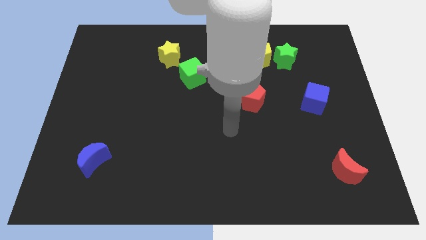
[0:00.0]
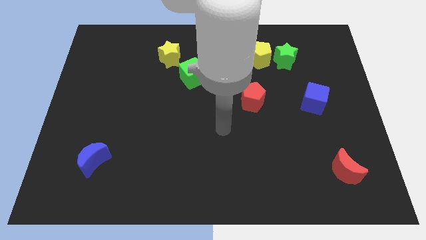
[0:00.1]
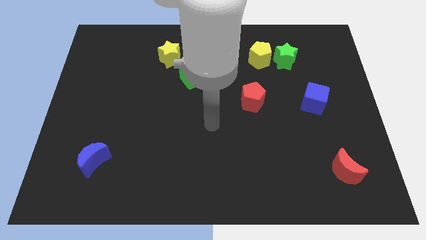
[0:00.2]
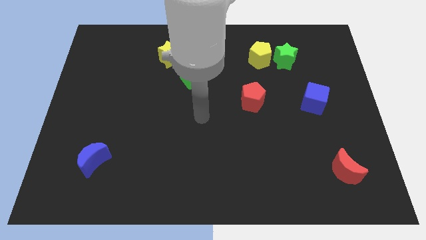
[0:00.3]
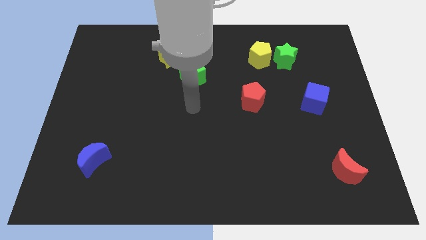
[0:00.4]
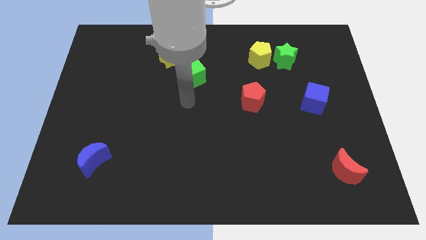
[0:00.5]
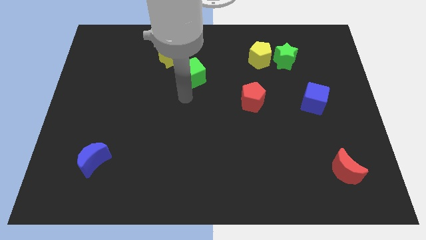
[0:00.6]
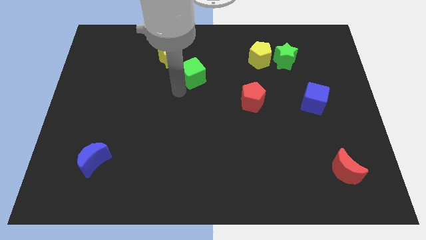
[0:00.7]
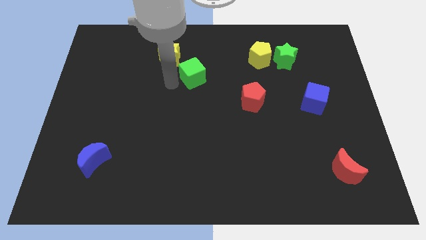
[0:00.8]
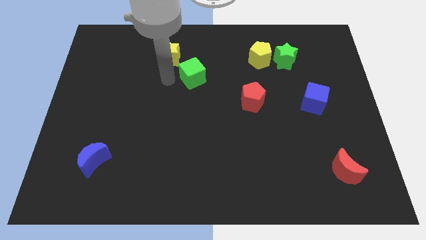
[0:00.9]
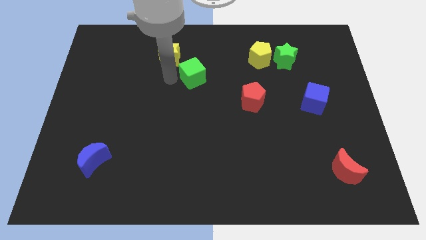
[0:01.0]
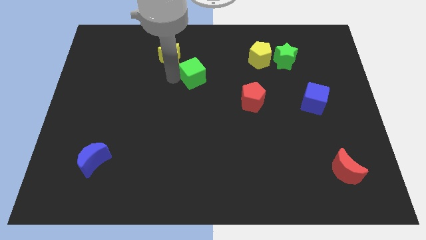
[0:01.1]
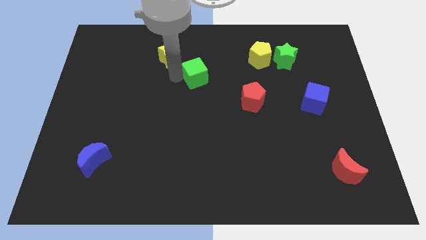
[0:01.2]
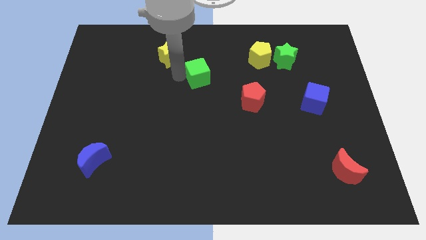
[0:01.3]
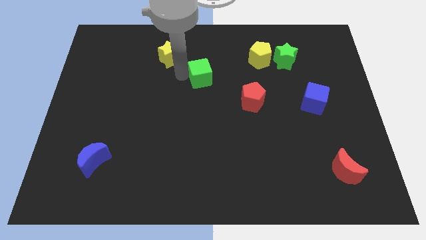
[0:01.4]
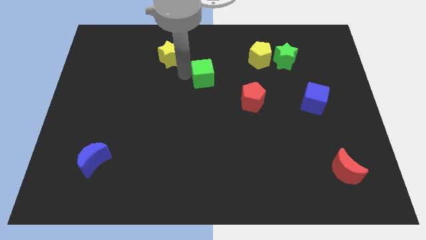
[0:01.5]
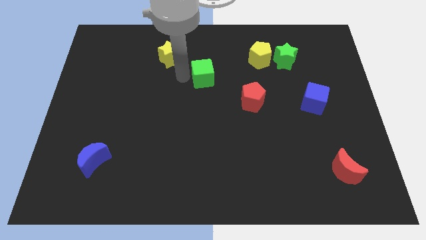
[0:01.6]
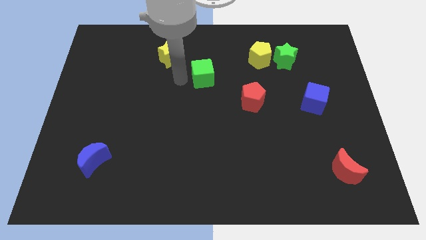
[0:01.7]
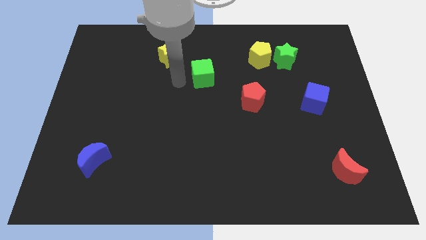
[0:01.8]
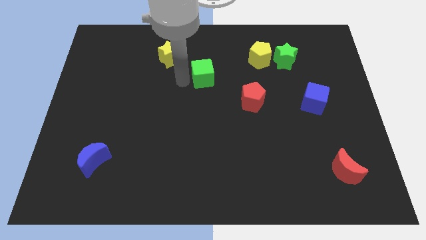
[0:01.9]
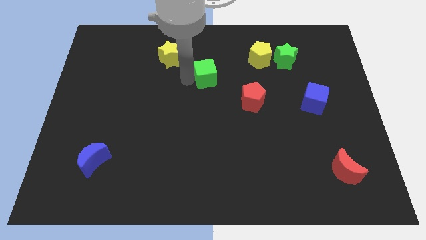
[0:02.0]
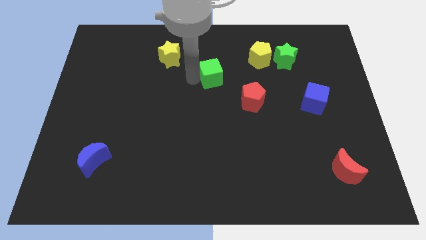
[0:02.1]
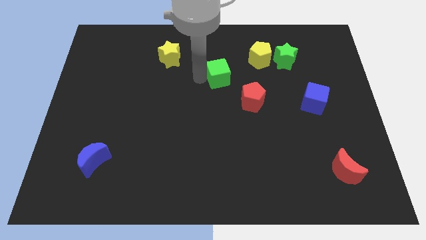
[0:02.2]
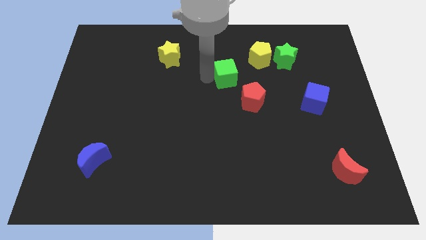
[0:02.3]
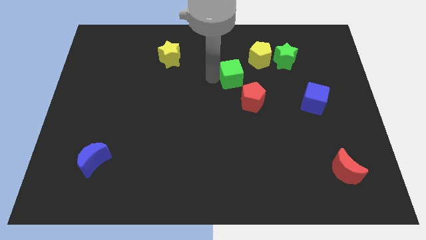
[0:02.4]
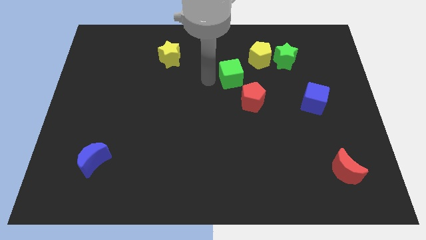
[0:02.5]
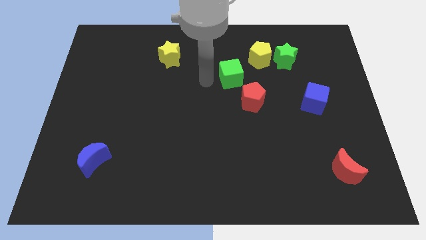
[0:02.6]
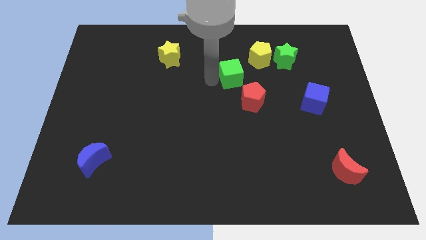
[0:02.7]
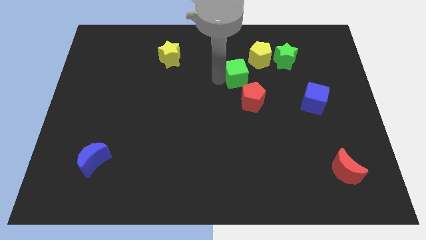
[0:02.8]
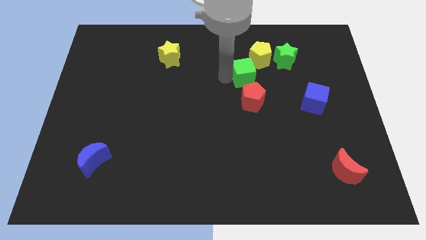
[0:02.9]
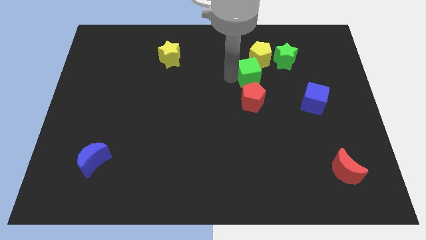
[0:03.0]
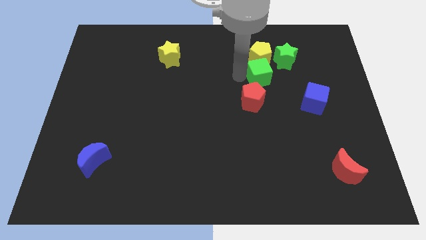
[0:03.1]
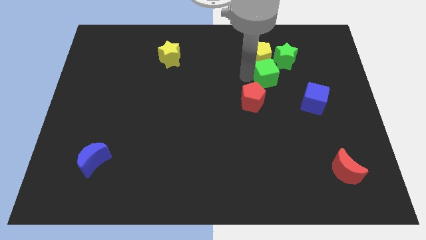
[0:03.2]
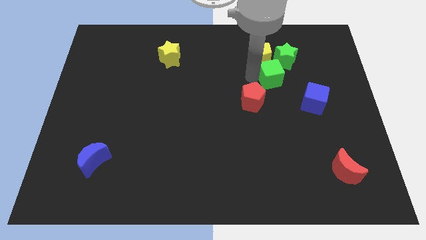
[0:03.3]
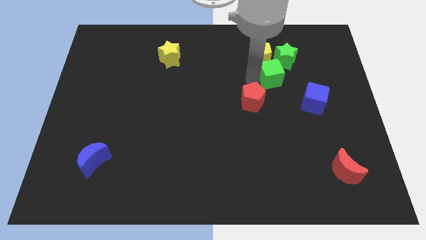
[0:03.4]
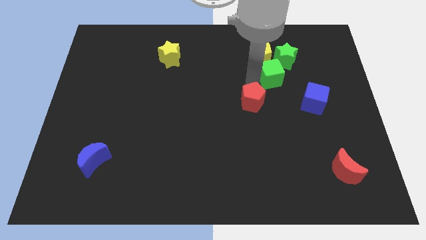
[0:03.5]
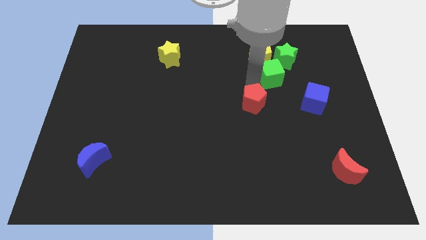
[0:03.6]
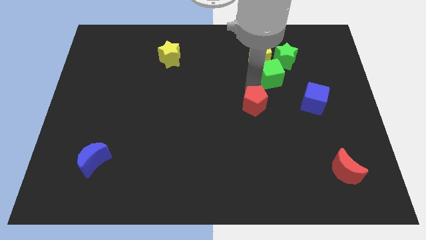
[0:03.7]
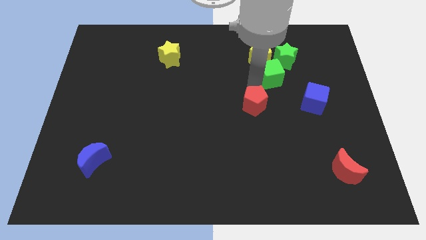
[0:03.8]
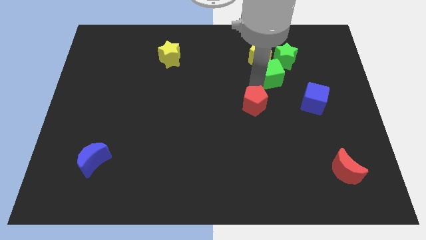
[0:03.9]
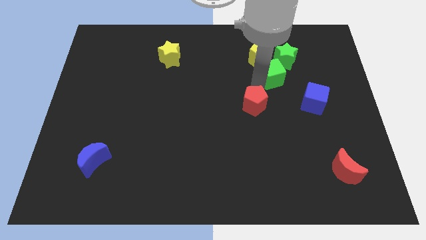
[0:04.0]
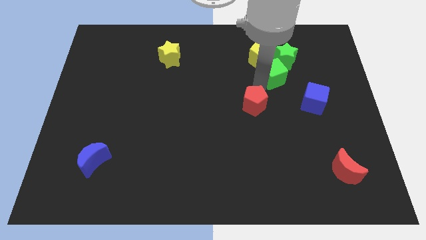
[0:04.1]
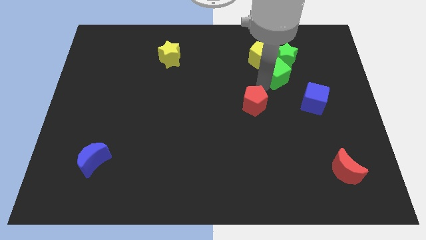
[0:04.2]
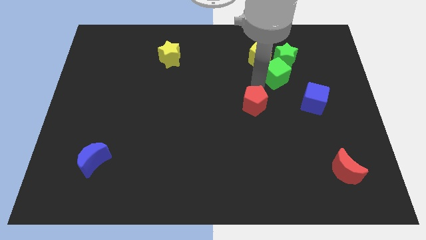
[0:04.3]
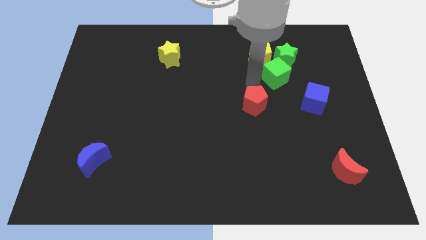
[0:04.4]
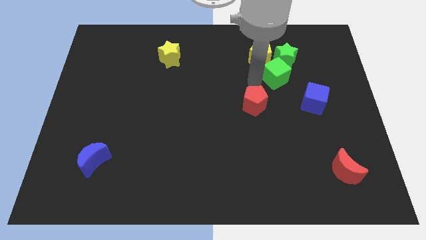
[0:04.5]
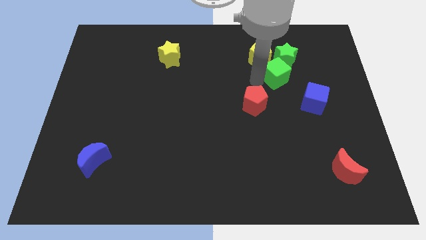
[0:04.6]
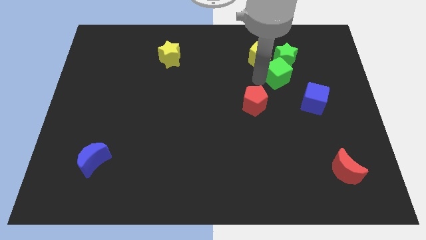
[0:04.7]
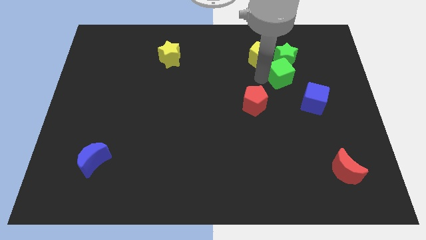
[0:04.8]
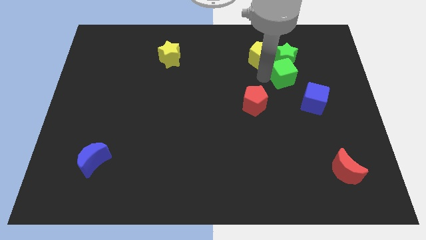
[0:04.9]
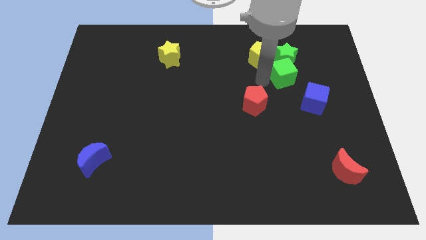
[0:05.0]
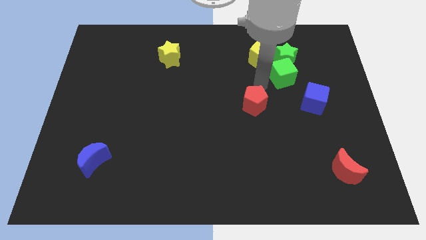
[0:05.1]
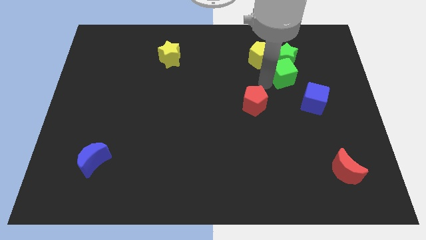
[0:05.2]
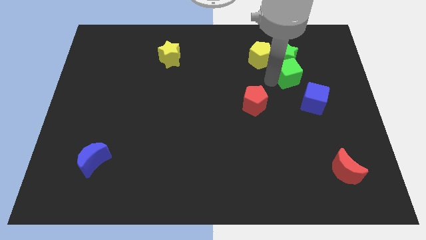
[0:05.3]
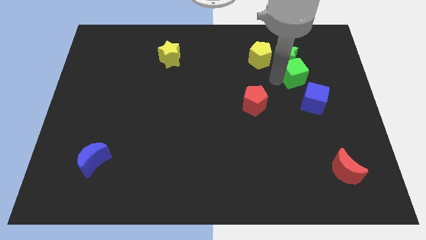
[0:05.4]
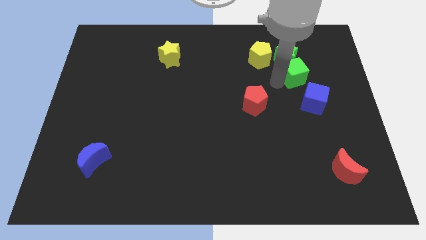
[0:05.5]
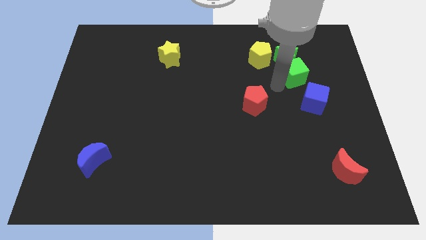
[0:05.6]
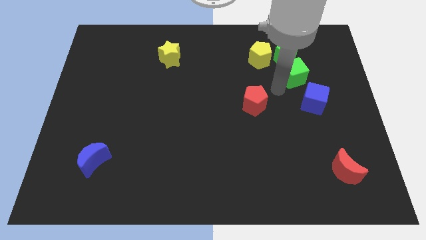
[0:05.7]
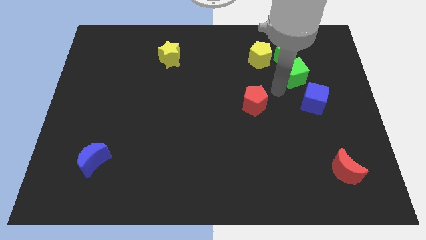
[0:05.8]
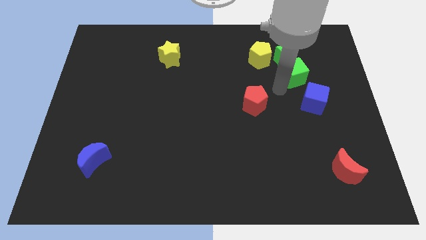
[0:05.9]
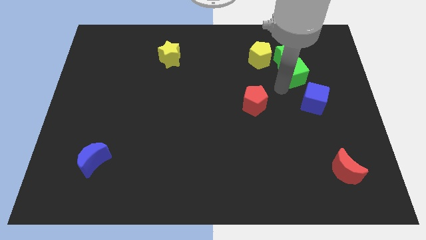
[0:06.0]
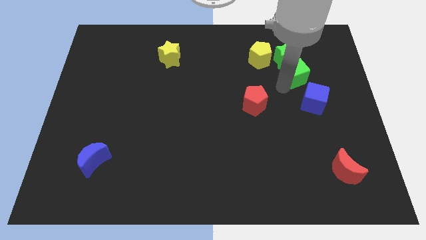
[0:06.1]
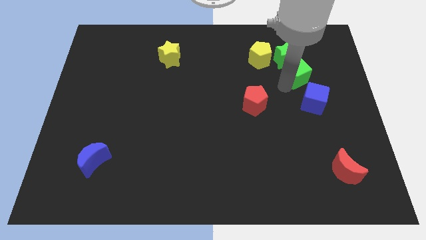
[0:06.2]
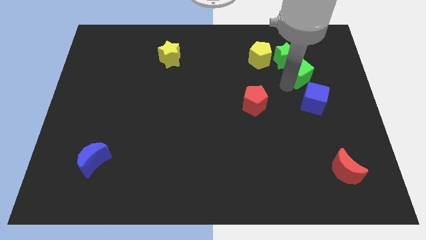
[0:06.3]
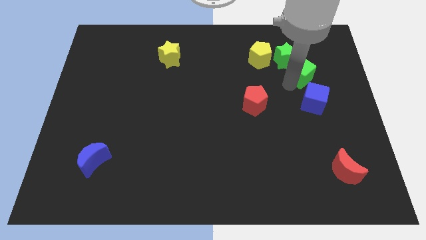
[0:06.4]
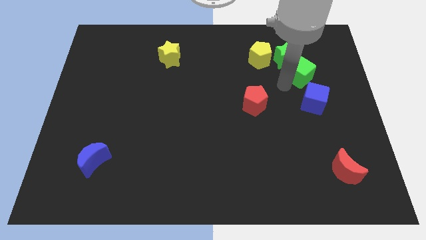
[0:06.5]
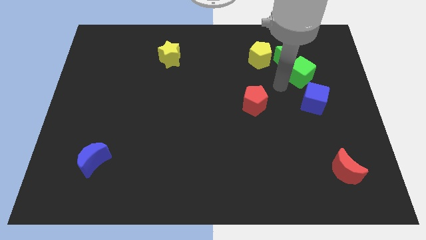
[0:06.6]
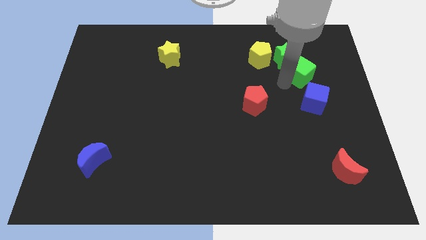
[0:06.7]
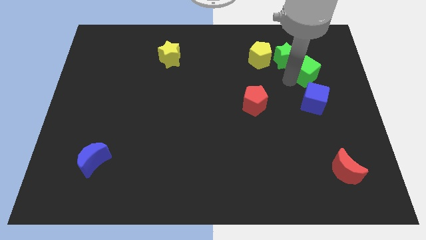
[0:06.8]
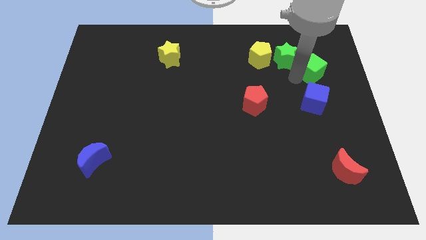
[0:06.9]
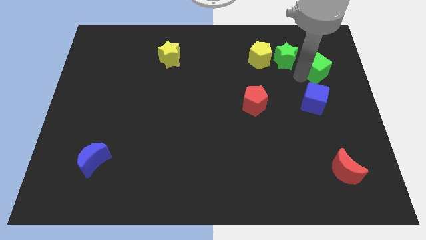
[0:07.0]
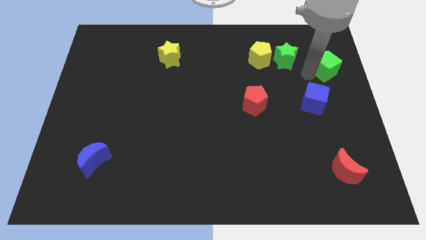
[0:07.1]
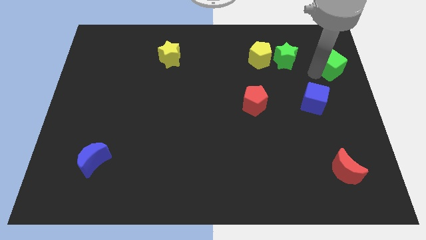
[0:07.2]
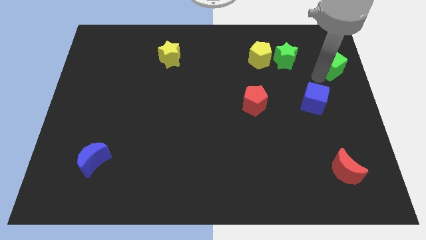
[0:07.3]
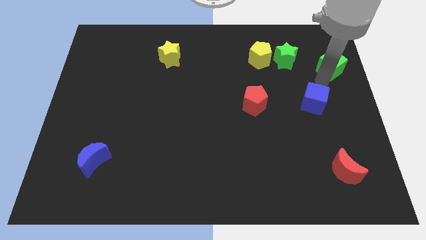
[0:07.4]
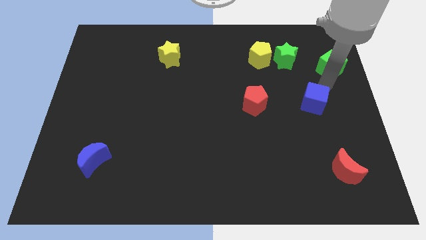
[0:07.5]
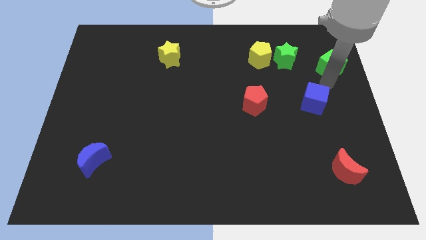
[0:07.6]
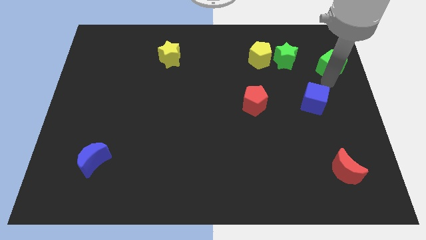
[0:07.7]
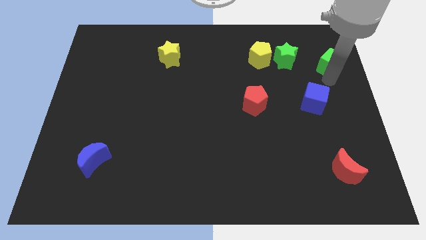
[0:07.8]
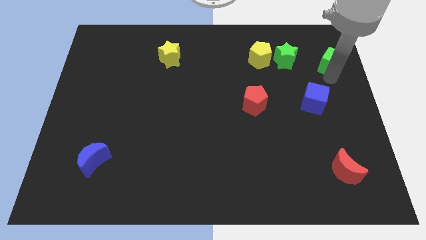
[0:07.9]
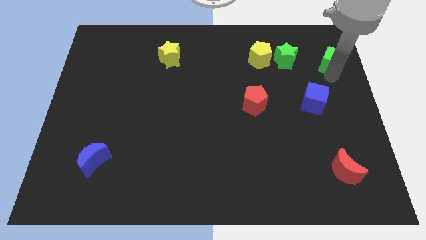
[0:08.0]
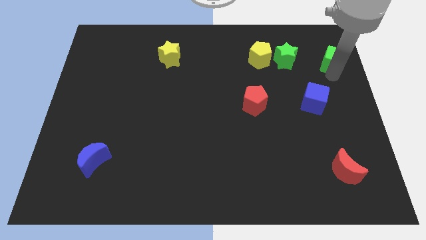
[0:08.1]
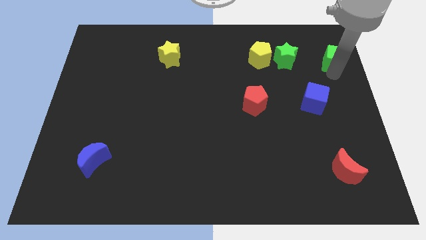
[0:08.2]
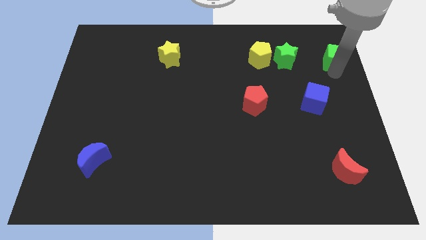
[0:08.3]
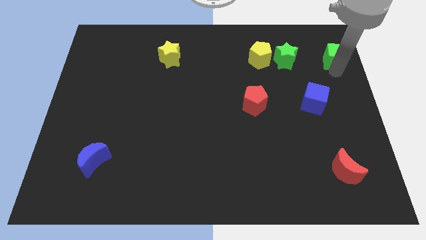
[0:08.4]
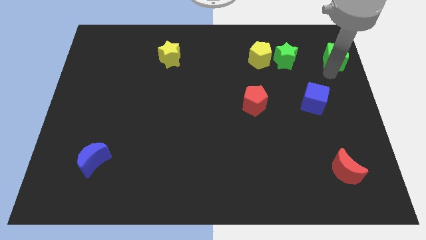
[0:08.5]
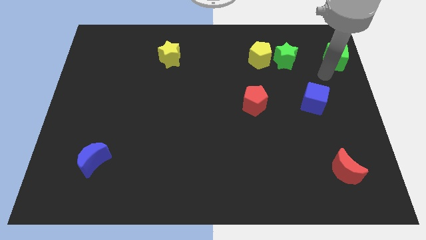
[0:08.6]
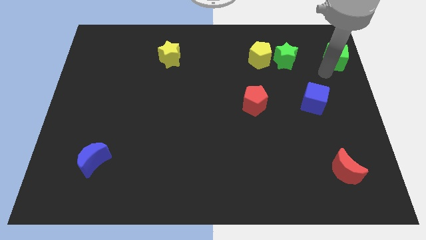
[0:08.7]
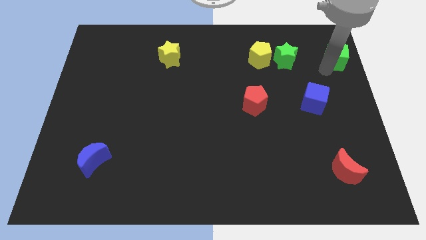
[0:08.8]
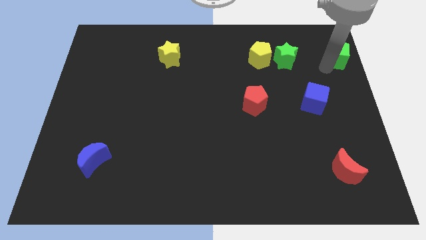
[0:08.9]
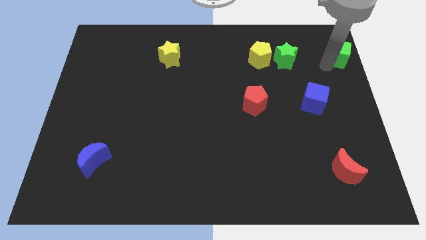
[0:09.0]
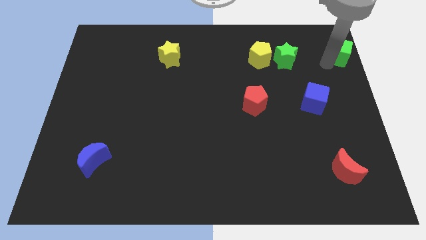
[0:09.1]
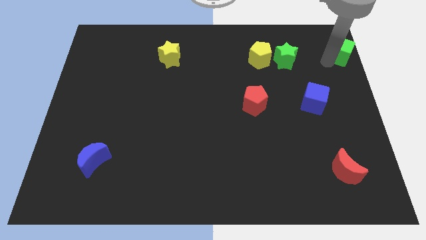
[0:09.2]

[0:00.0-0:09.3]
slide the green cube to the upper right corner
